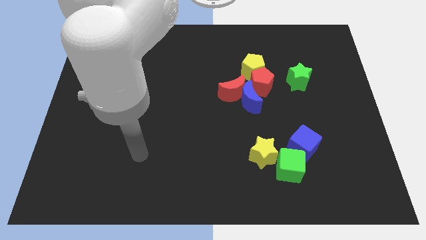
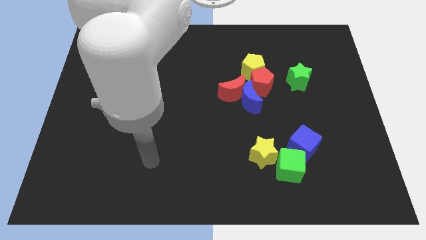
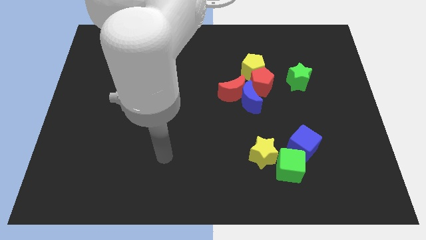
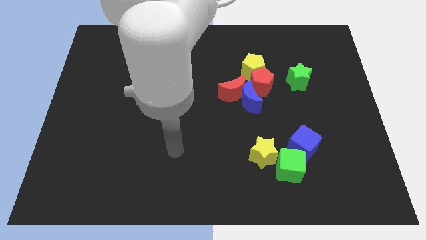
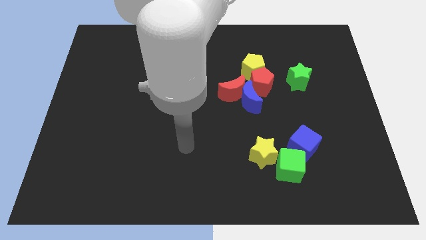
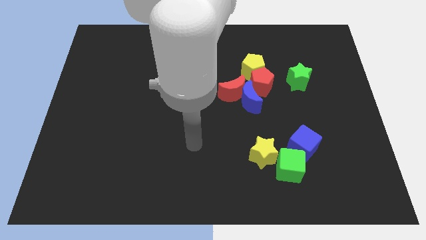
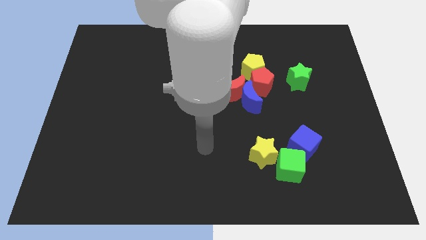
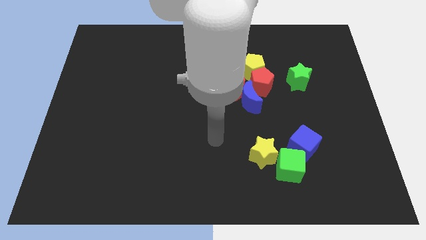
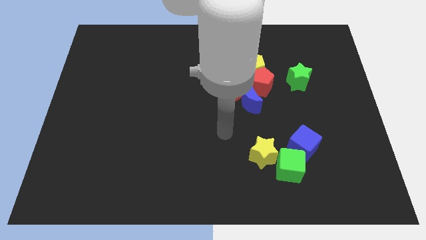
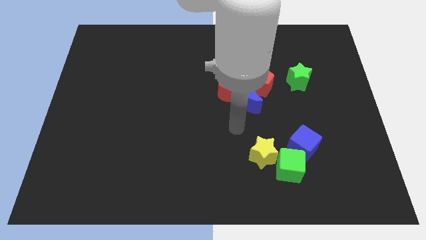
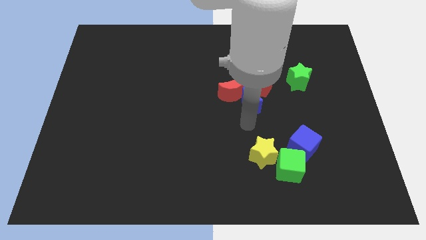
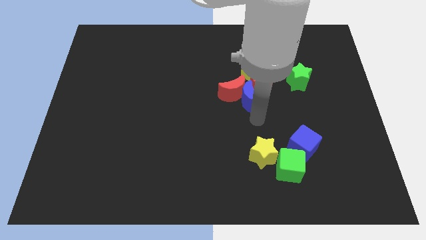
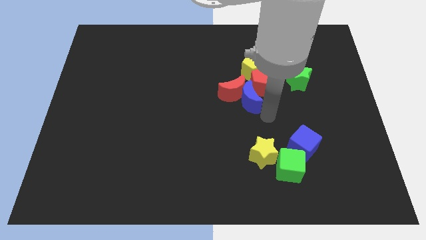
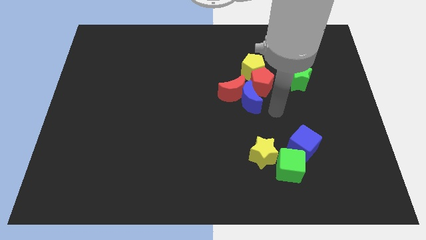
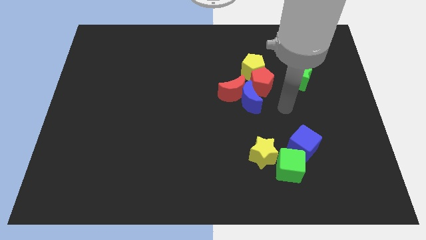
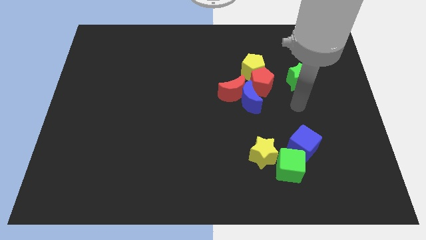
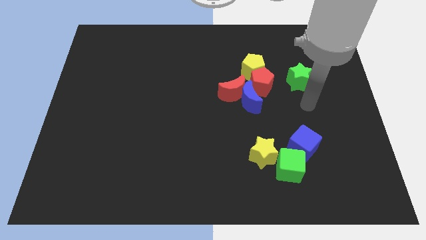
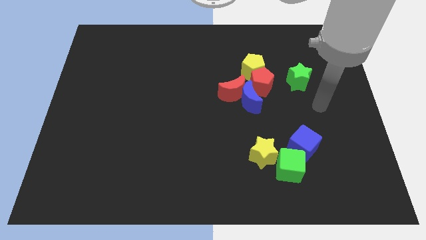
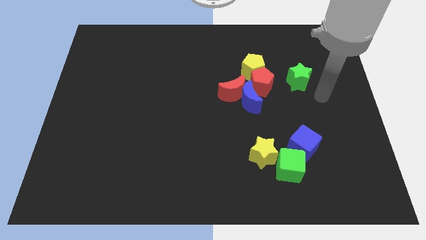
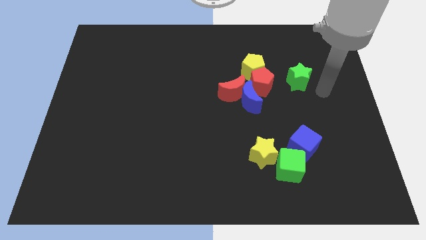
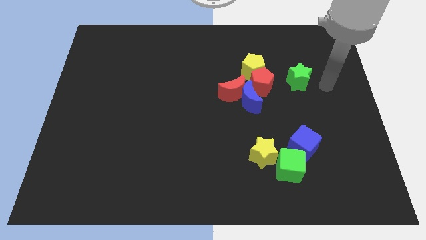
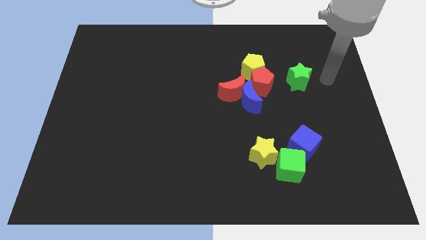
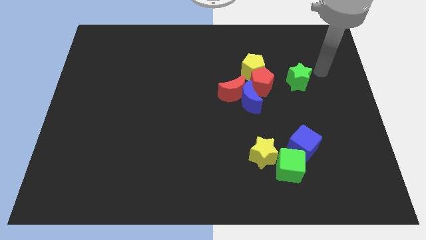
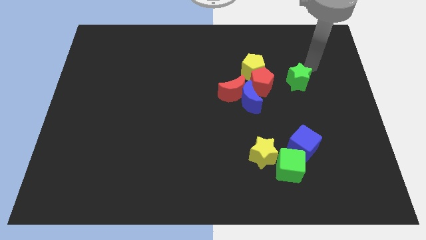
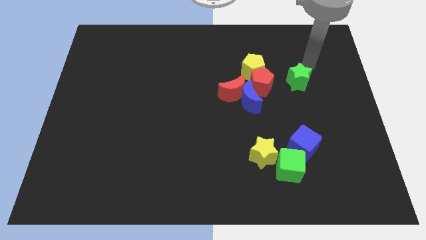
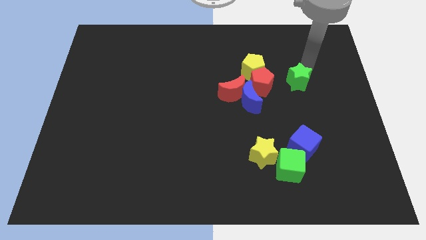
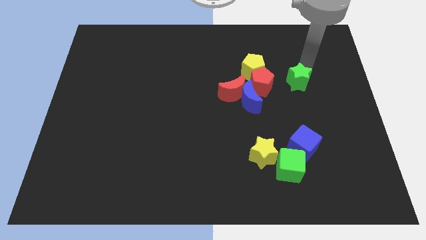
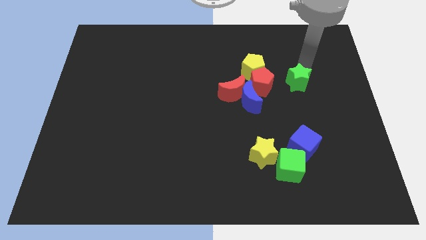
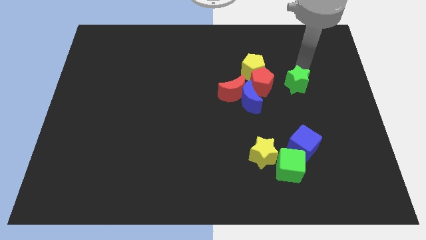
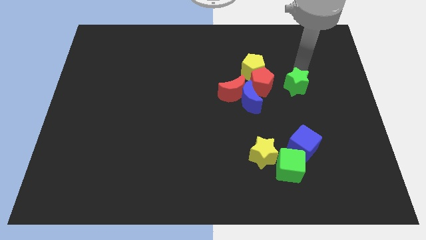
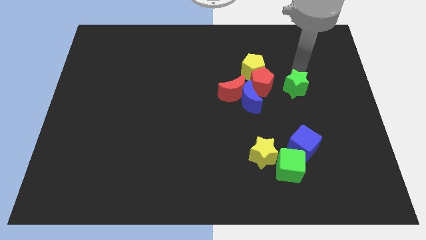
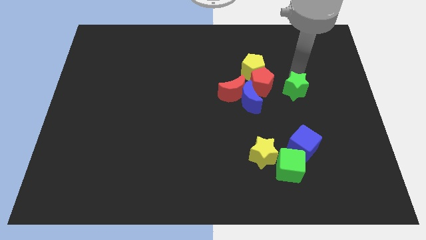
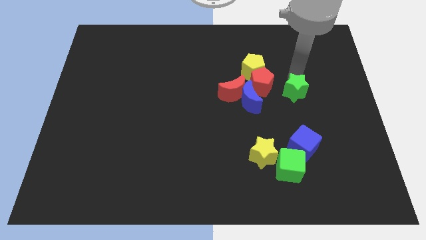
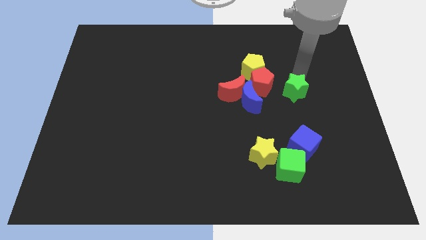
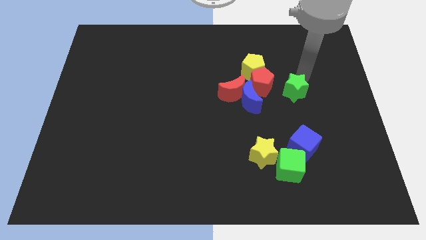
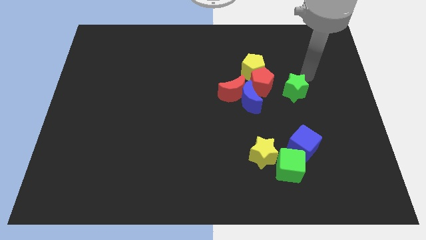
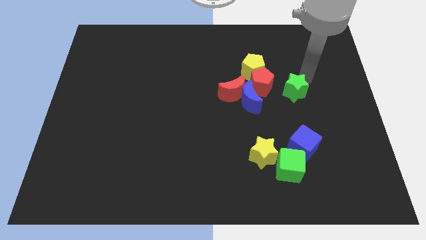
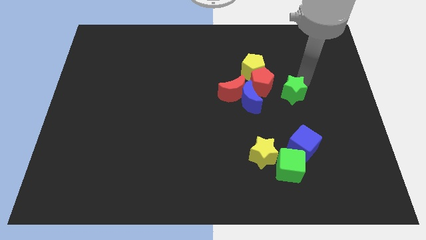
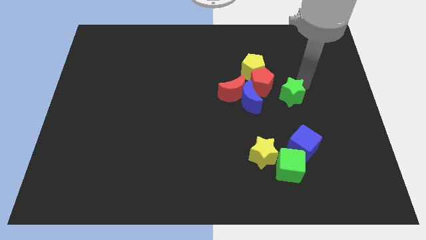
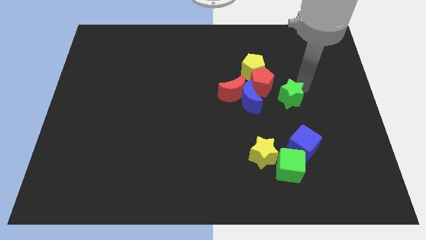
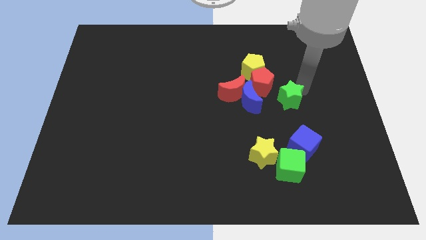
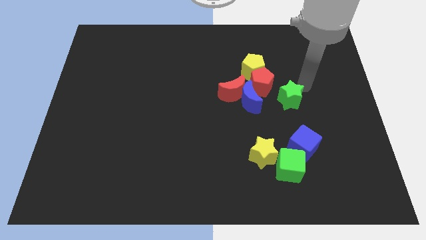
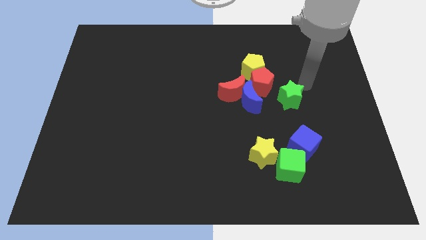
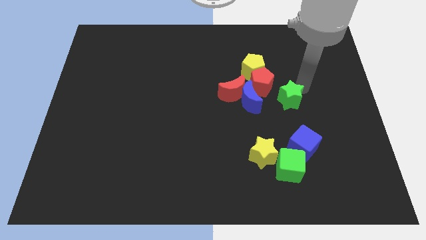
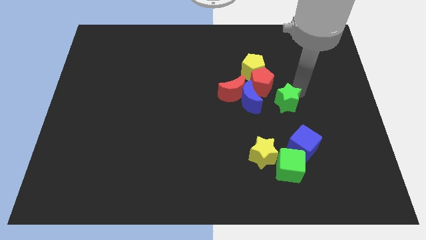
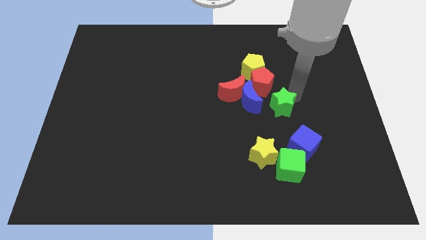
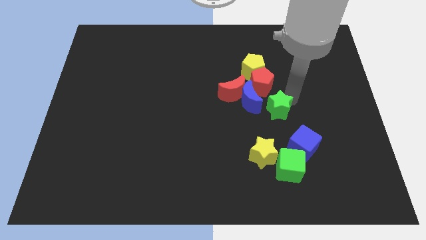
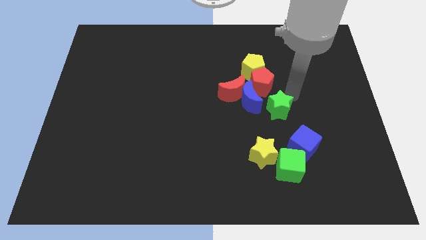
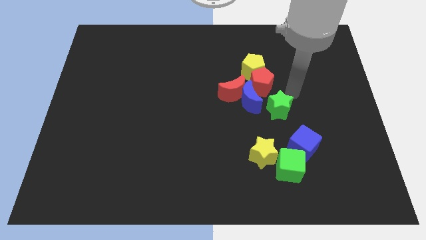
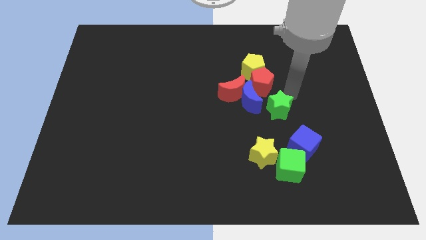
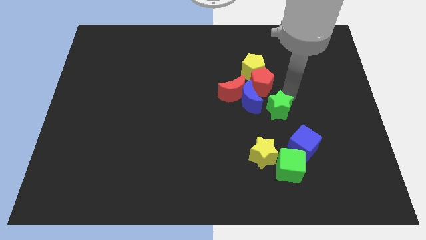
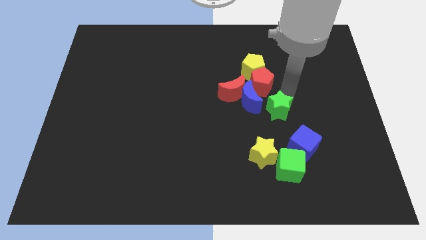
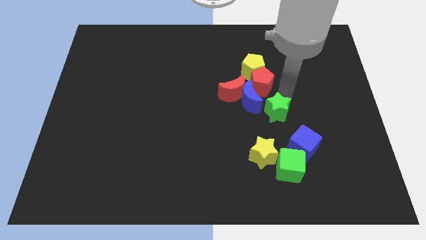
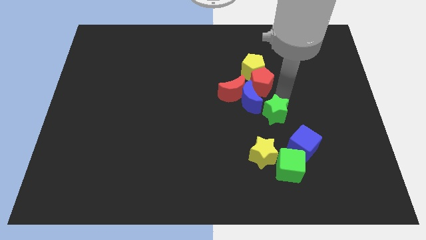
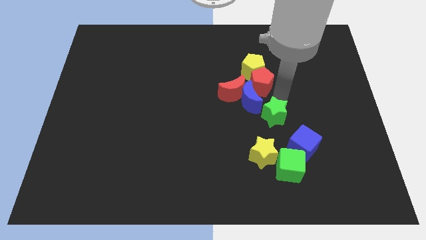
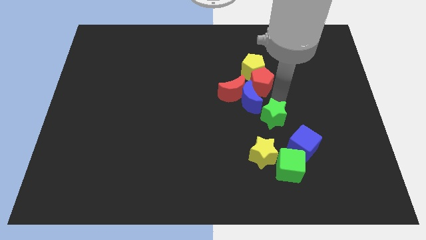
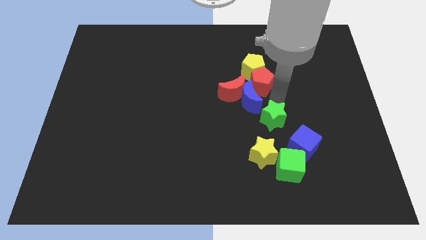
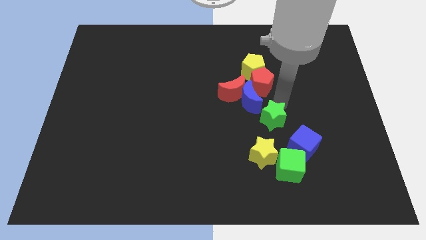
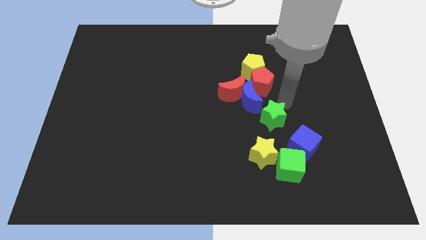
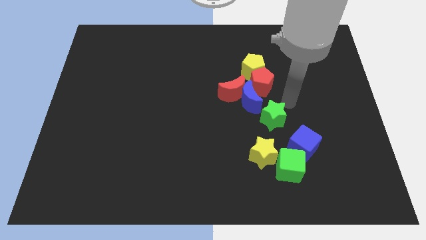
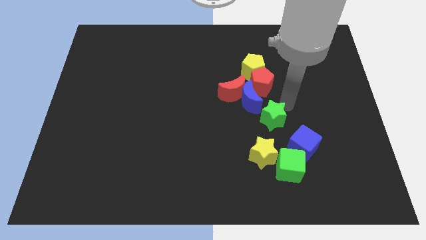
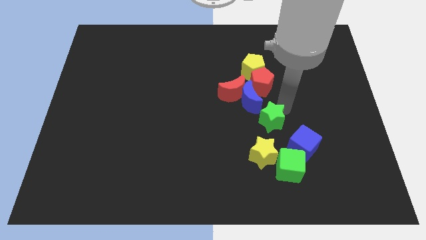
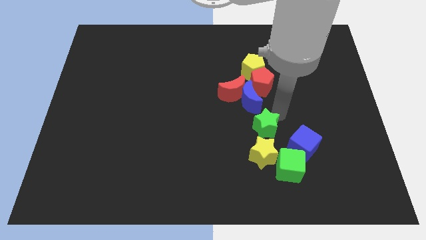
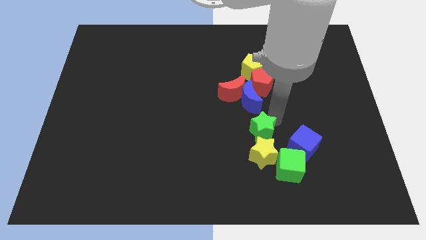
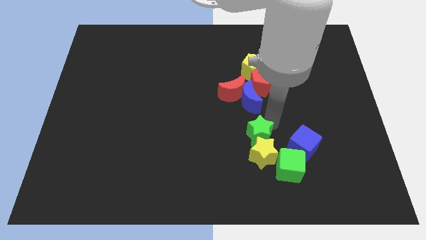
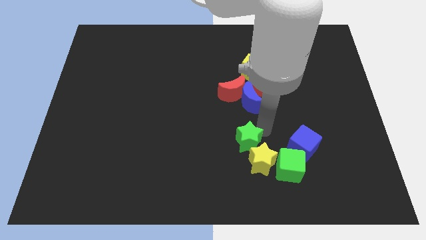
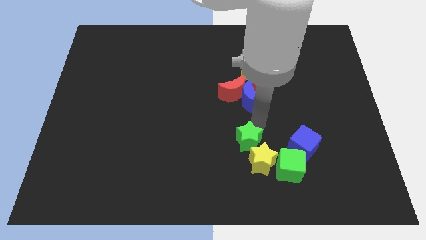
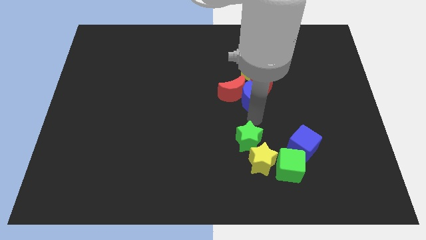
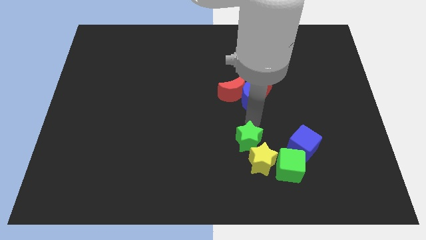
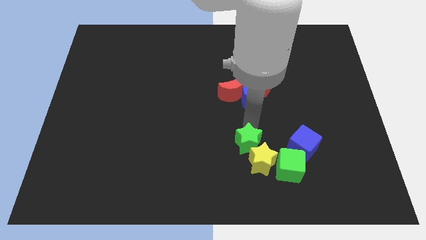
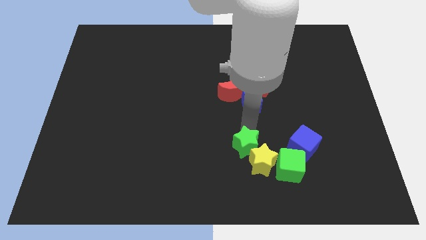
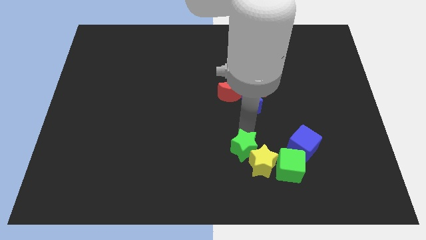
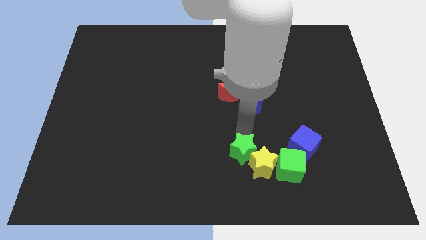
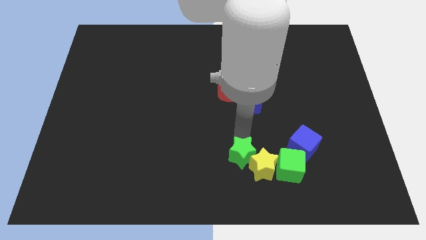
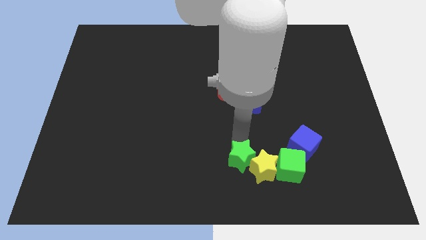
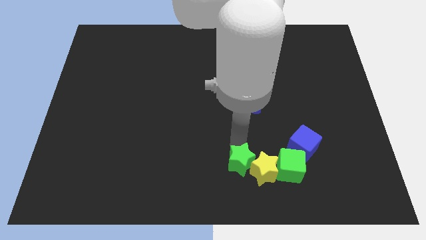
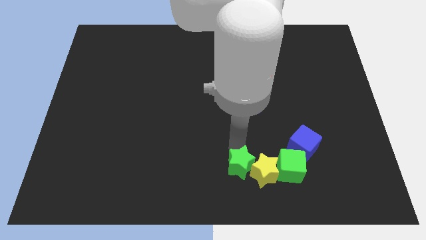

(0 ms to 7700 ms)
push the green star diagonally down and to the left of the yellow star

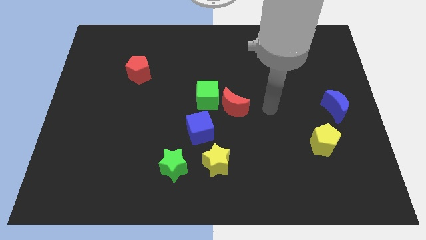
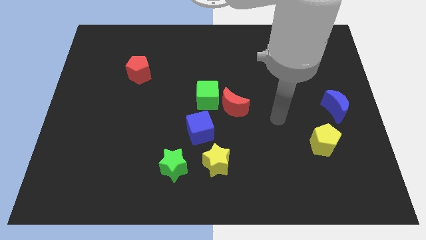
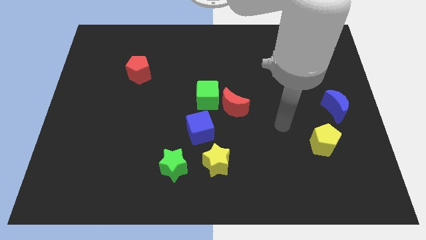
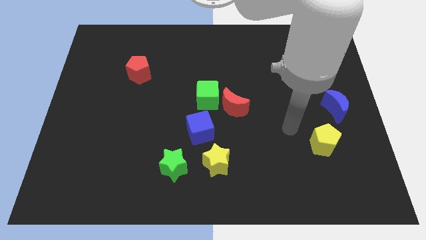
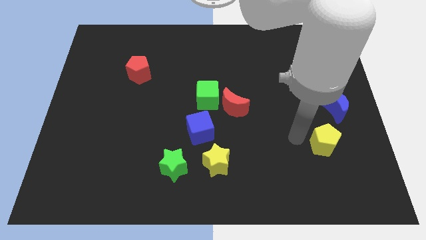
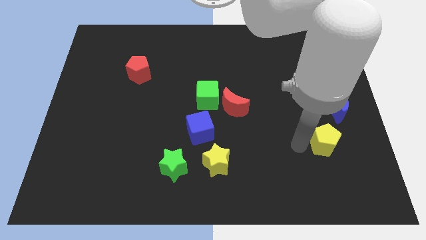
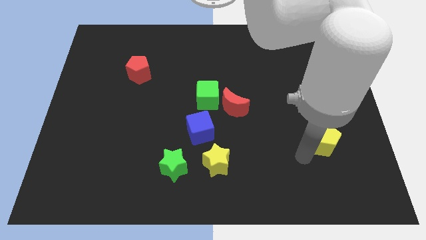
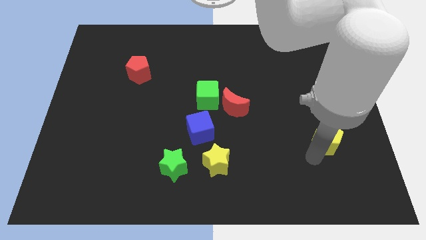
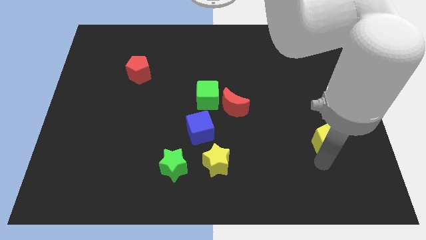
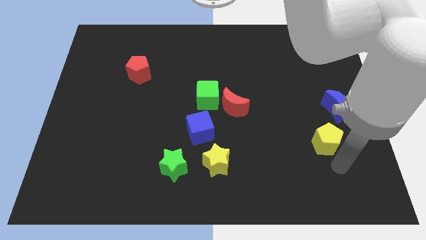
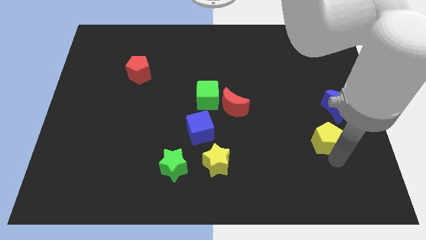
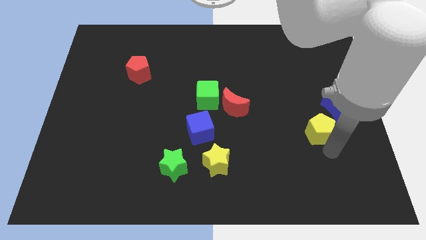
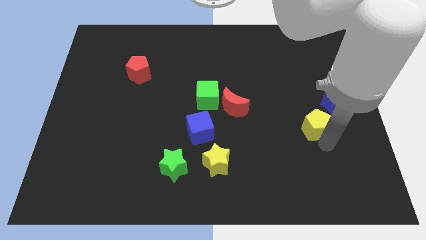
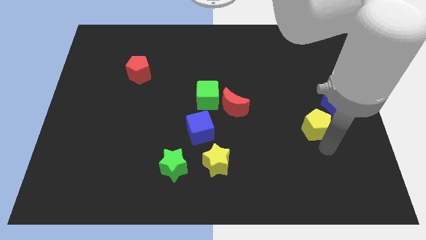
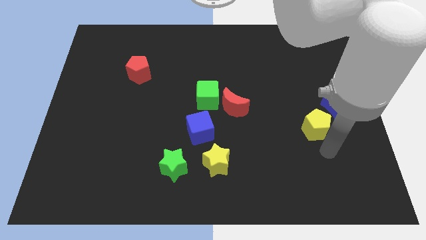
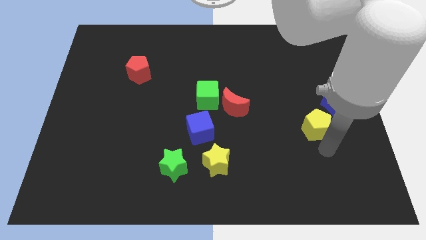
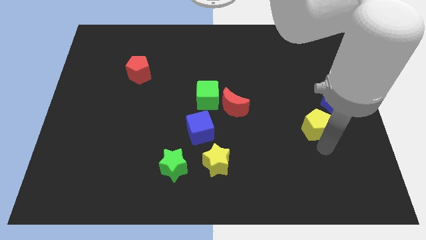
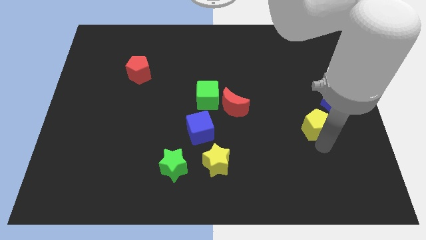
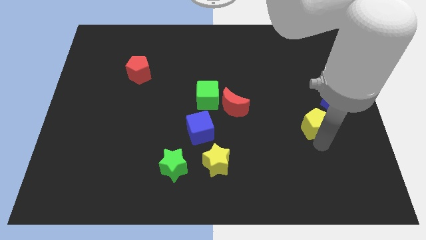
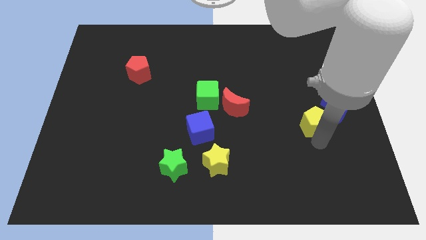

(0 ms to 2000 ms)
put the yellow pentagon to the left side of the blue moon
